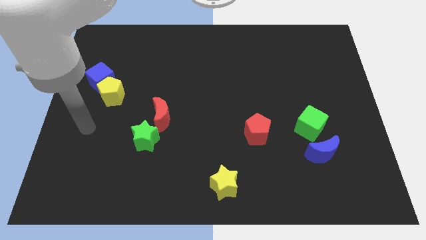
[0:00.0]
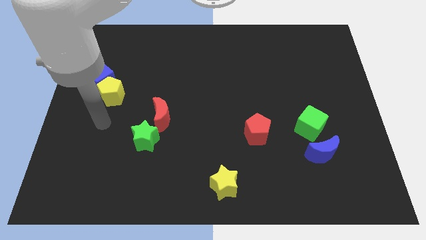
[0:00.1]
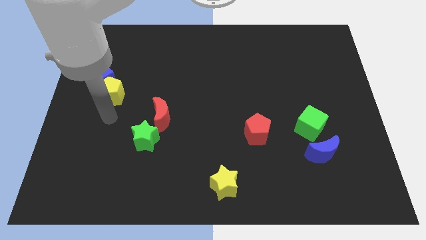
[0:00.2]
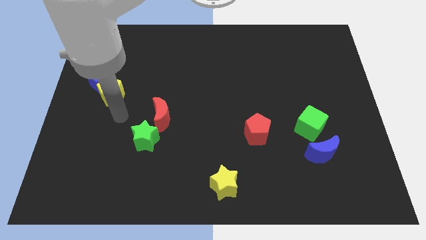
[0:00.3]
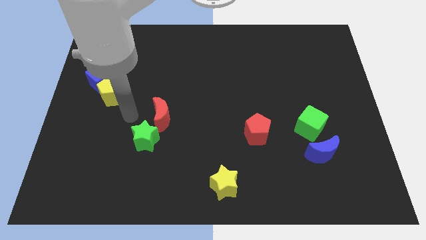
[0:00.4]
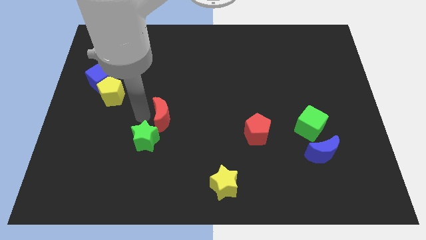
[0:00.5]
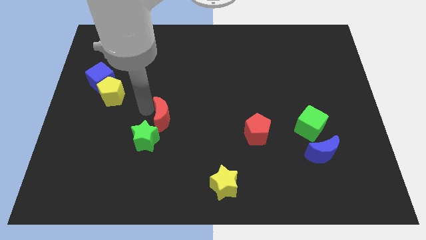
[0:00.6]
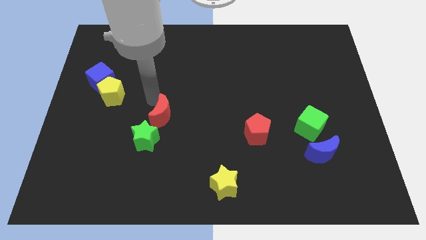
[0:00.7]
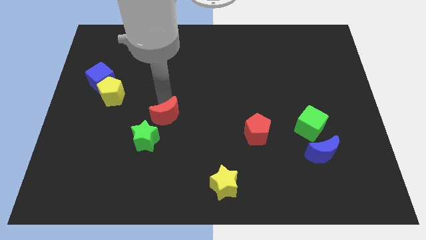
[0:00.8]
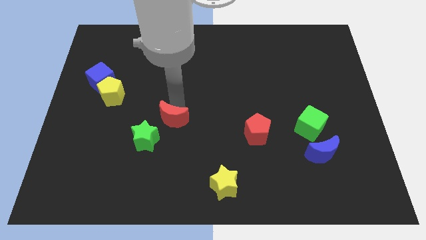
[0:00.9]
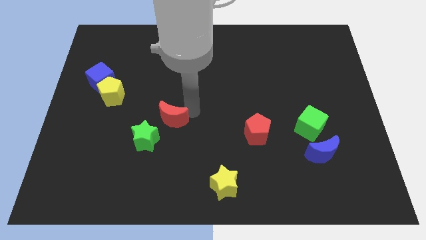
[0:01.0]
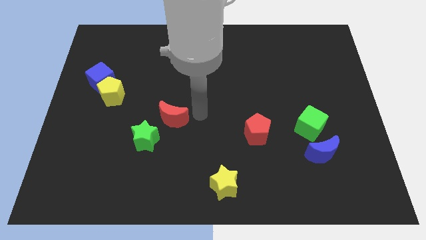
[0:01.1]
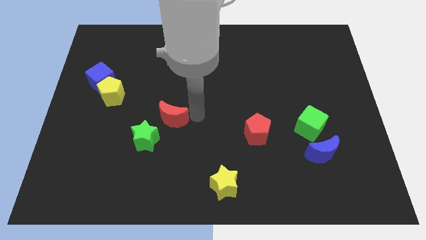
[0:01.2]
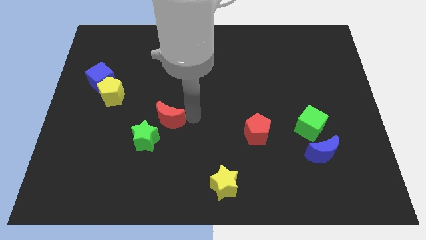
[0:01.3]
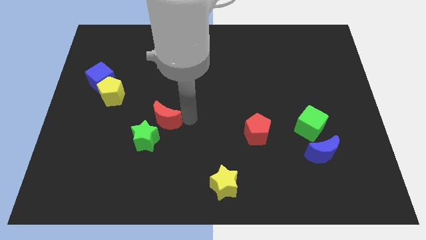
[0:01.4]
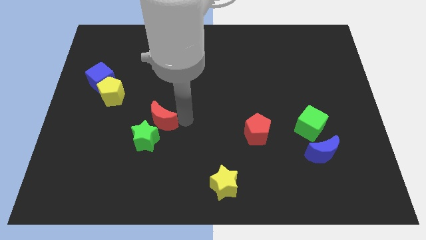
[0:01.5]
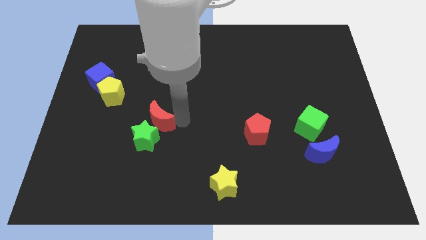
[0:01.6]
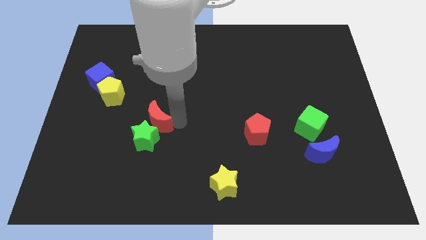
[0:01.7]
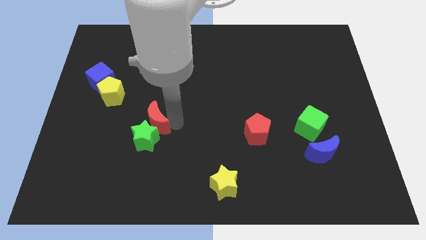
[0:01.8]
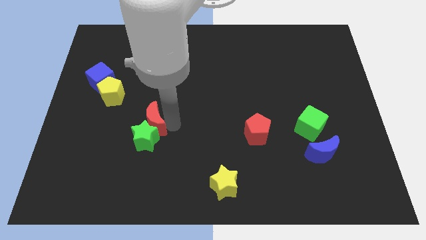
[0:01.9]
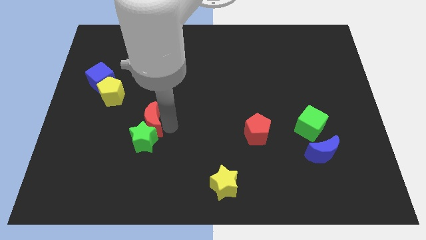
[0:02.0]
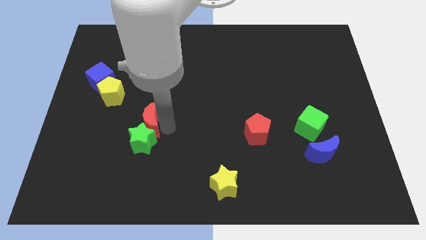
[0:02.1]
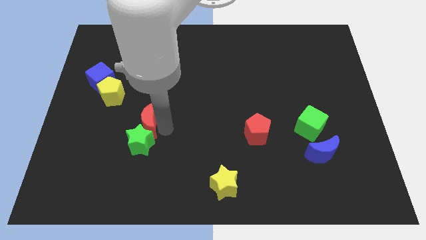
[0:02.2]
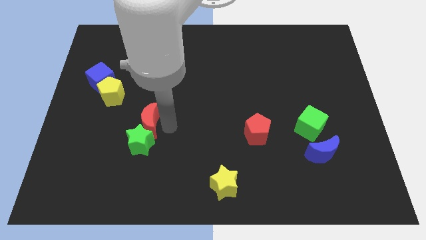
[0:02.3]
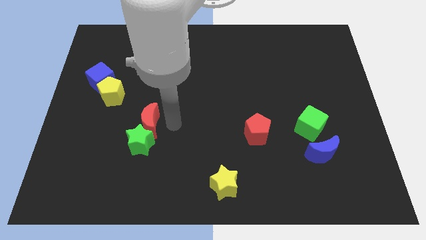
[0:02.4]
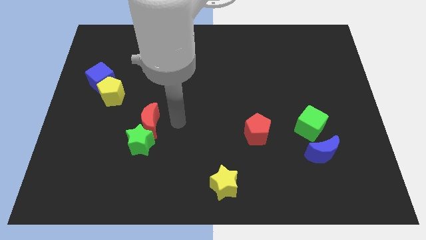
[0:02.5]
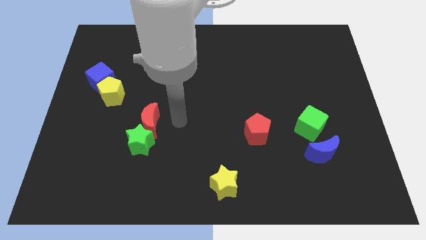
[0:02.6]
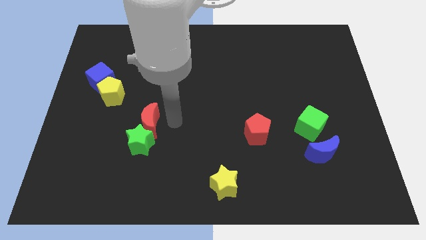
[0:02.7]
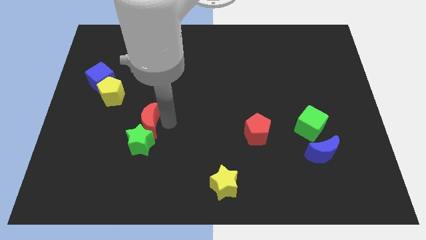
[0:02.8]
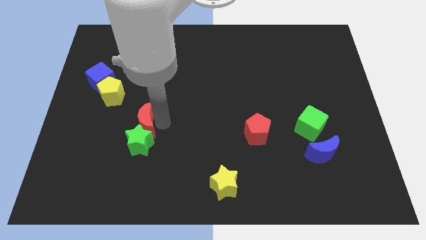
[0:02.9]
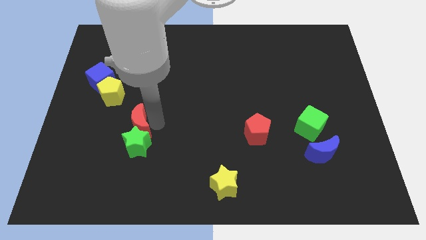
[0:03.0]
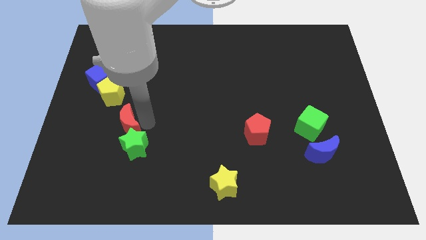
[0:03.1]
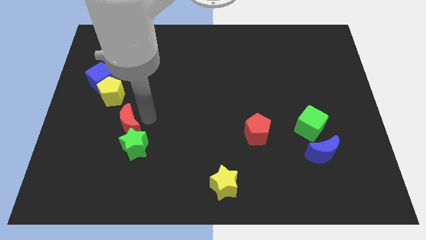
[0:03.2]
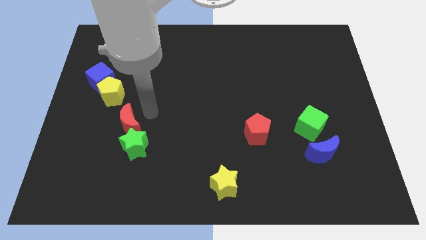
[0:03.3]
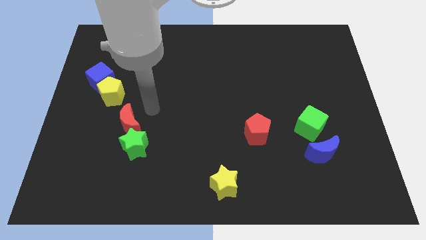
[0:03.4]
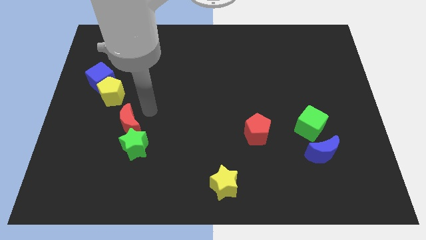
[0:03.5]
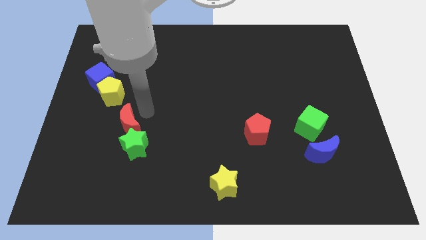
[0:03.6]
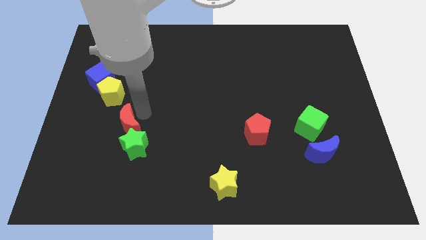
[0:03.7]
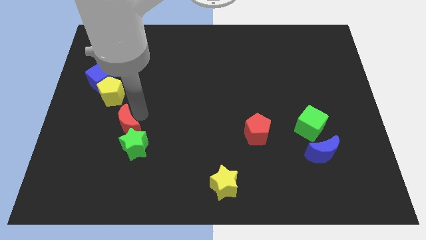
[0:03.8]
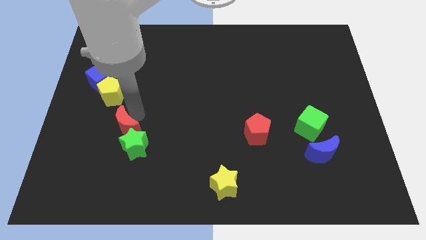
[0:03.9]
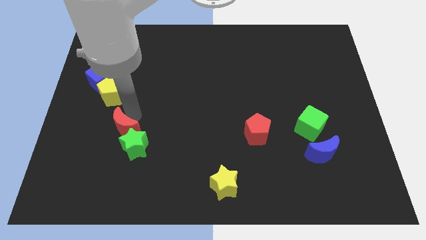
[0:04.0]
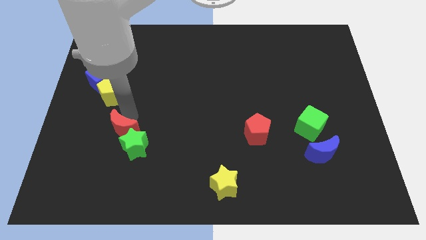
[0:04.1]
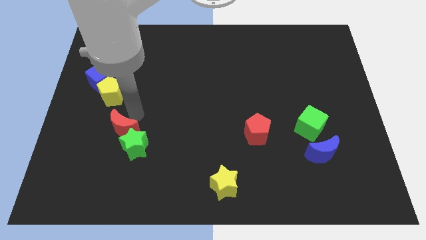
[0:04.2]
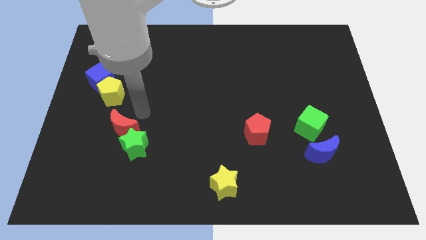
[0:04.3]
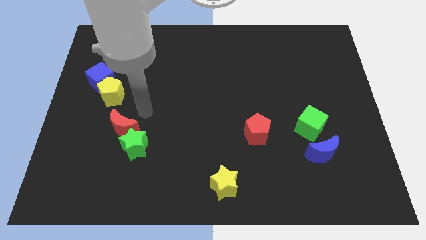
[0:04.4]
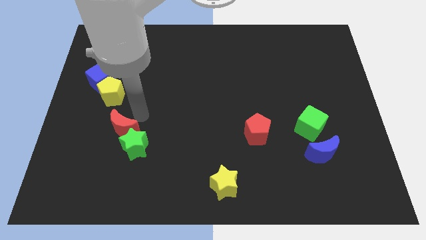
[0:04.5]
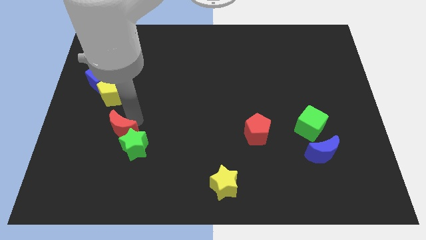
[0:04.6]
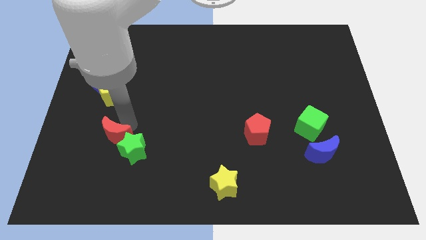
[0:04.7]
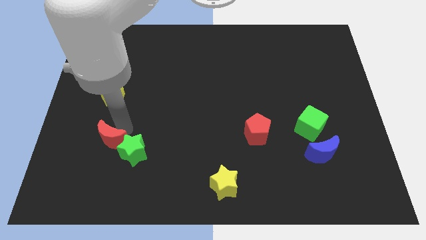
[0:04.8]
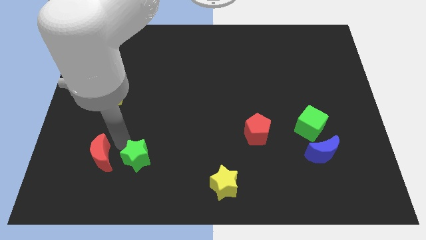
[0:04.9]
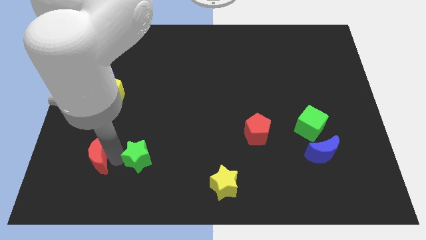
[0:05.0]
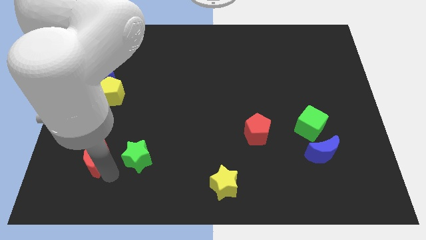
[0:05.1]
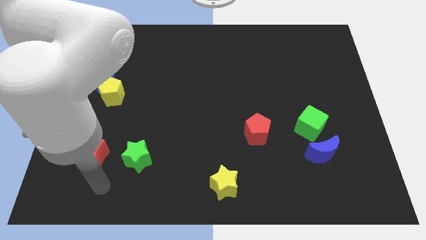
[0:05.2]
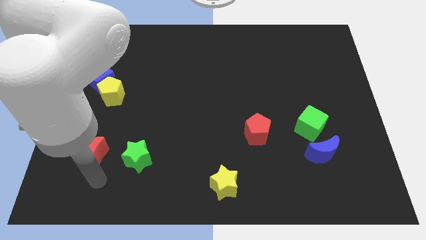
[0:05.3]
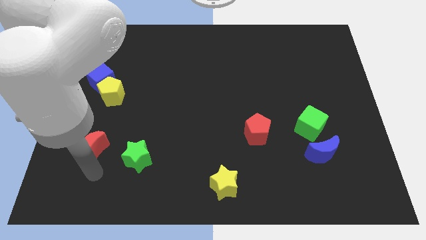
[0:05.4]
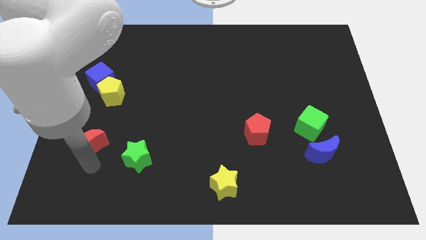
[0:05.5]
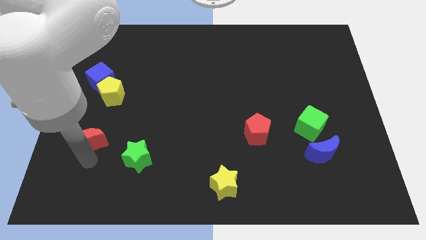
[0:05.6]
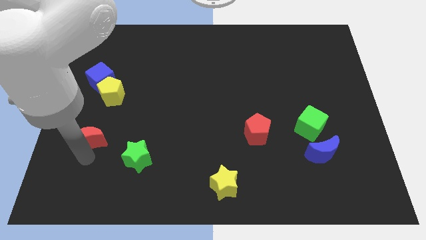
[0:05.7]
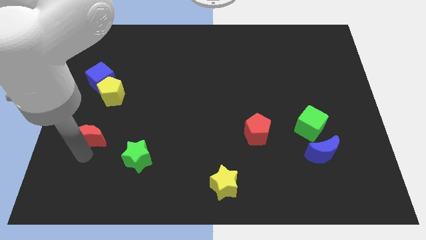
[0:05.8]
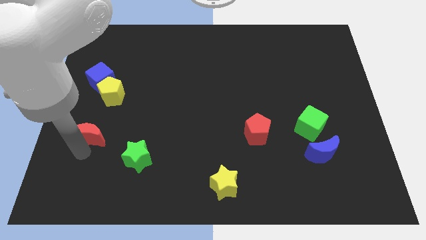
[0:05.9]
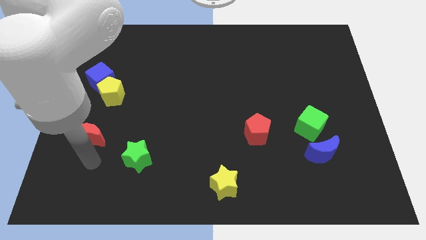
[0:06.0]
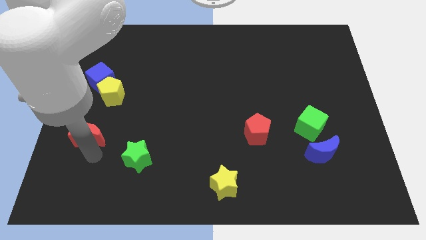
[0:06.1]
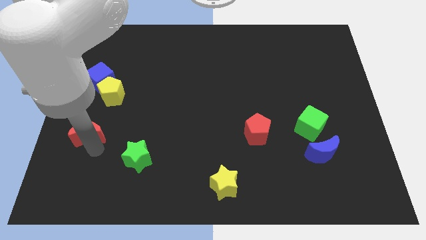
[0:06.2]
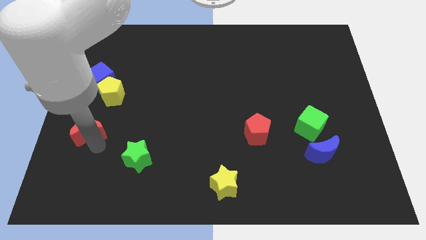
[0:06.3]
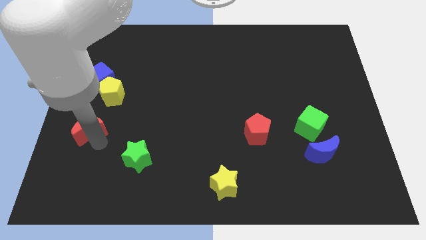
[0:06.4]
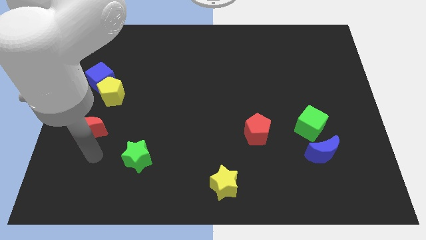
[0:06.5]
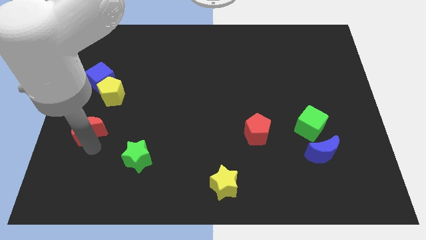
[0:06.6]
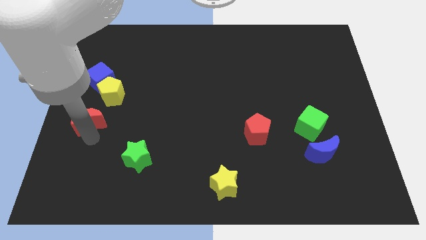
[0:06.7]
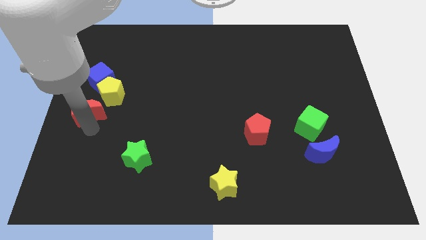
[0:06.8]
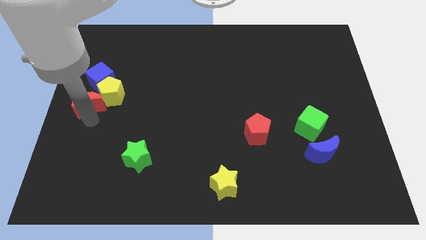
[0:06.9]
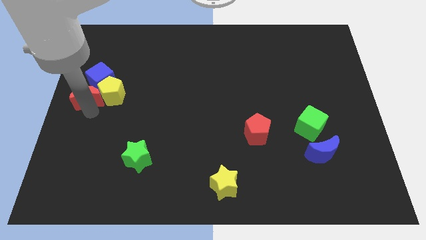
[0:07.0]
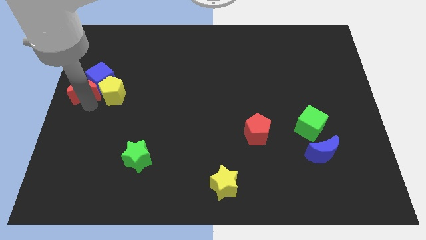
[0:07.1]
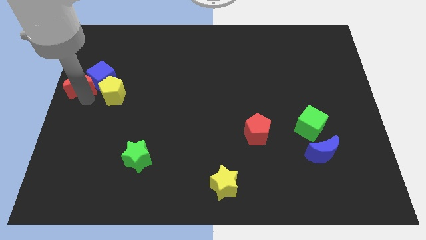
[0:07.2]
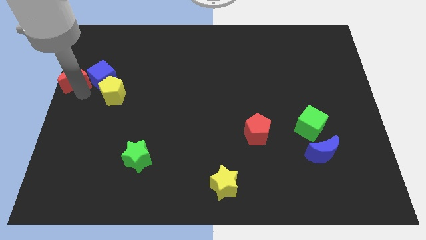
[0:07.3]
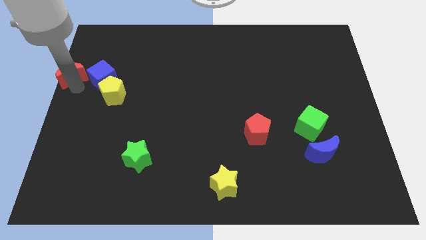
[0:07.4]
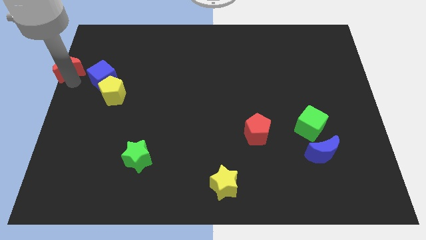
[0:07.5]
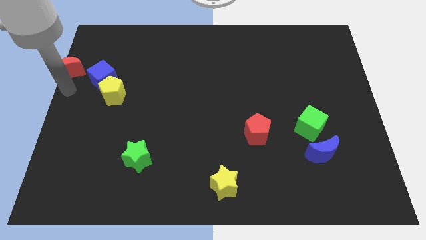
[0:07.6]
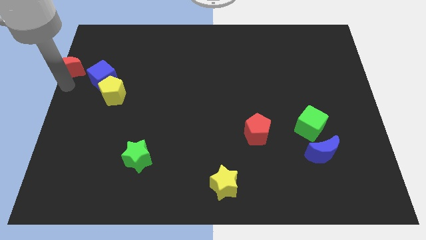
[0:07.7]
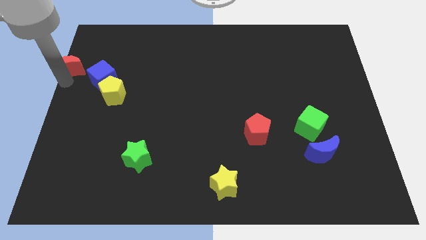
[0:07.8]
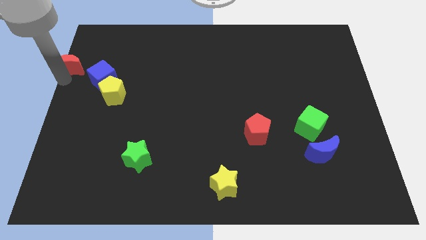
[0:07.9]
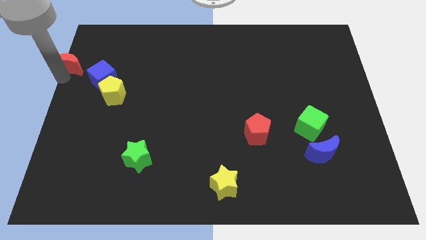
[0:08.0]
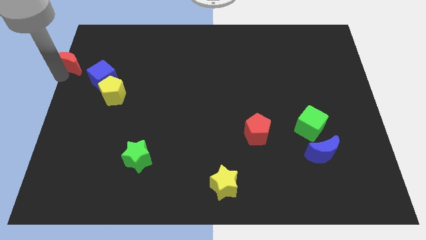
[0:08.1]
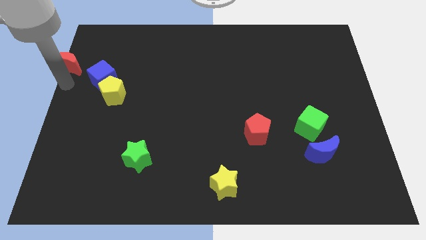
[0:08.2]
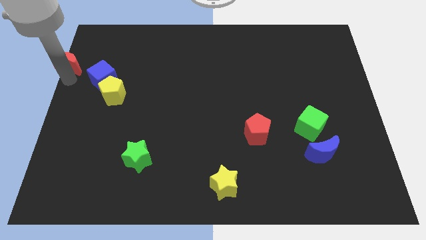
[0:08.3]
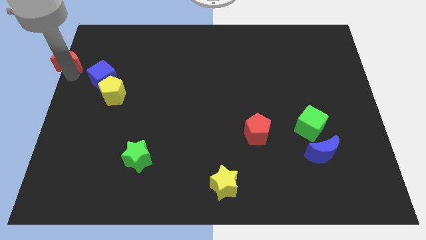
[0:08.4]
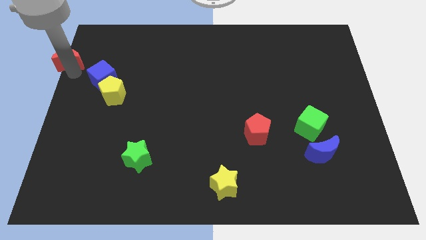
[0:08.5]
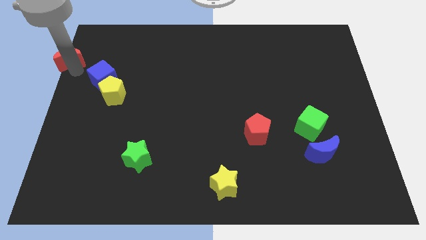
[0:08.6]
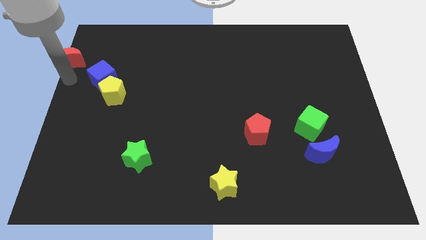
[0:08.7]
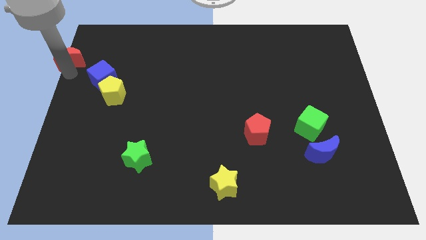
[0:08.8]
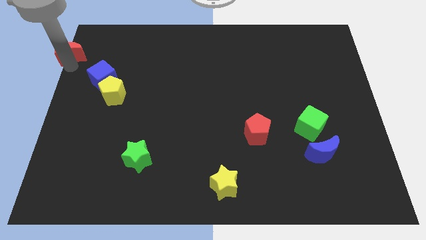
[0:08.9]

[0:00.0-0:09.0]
push the red moon to the top left corner
